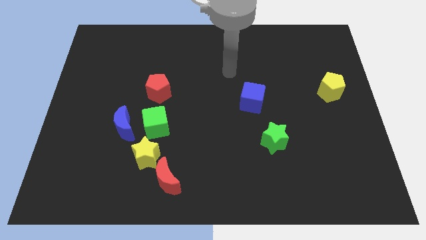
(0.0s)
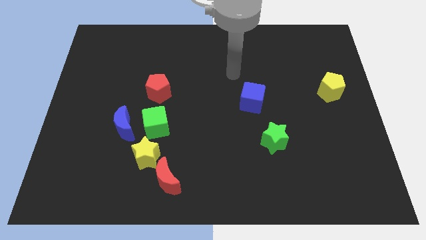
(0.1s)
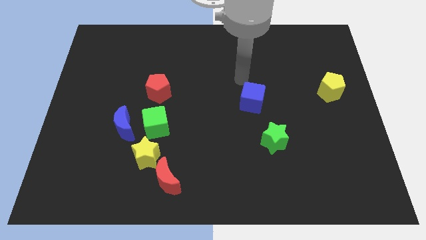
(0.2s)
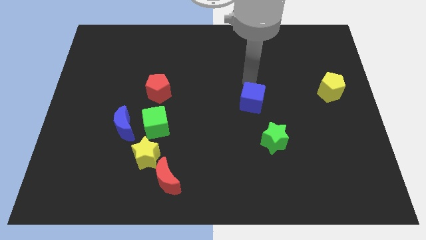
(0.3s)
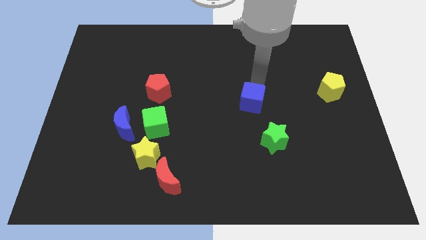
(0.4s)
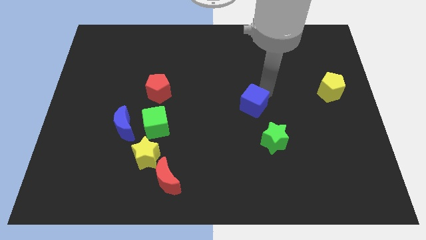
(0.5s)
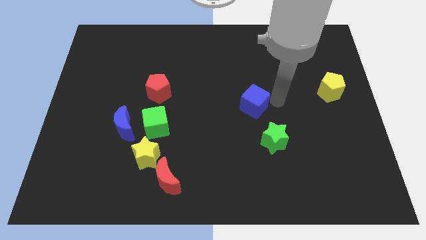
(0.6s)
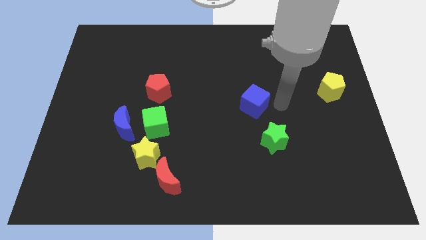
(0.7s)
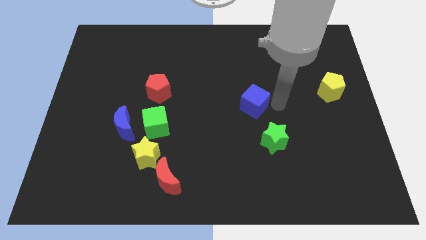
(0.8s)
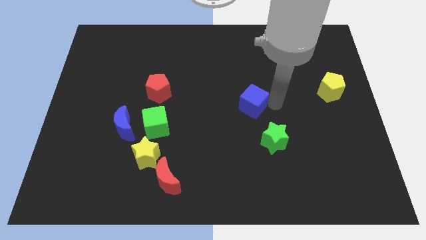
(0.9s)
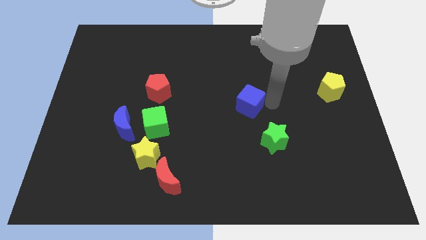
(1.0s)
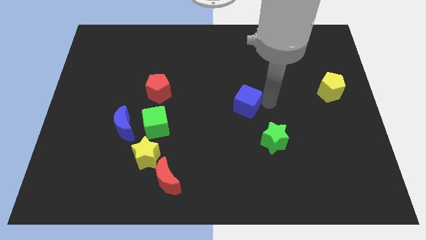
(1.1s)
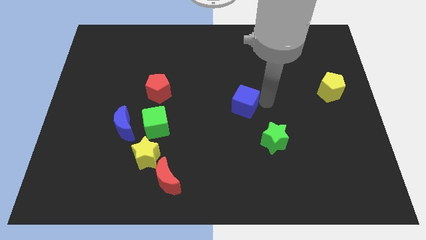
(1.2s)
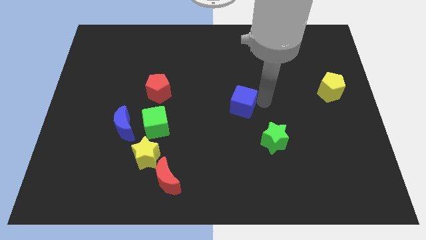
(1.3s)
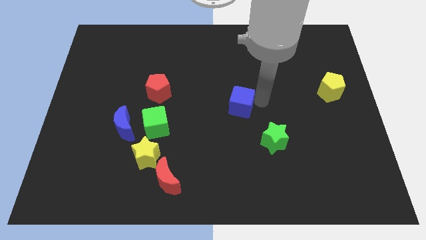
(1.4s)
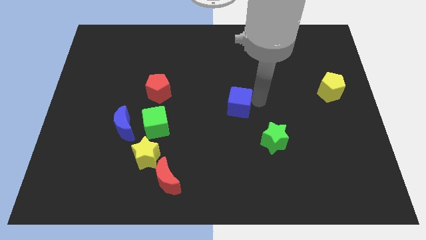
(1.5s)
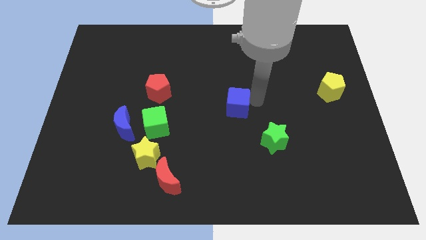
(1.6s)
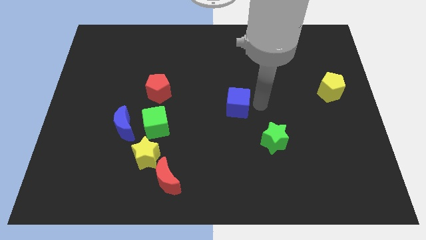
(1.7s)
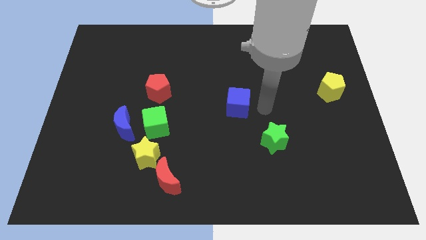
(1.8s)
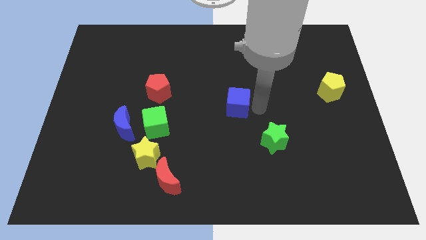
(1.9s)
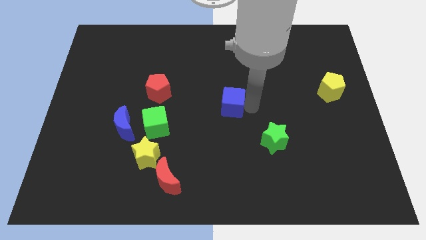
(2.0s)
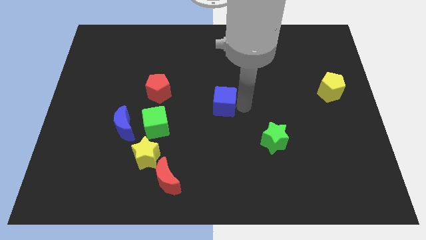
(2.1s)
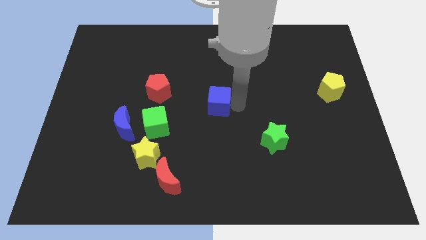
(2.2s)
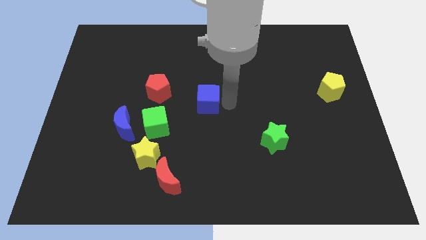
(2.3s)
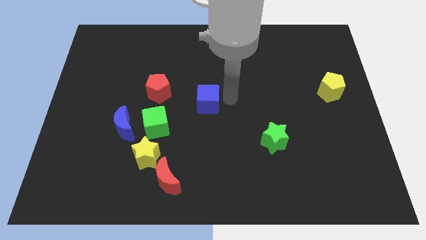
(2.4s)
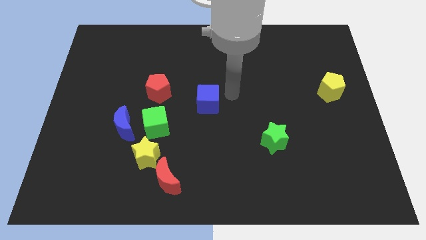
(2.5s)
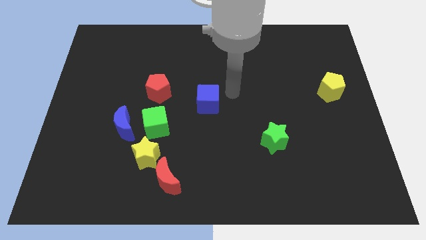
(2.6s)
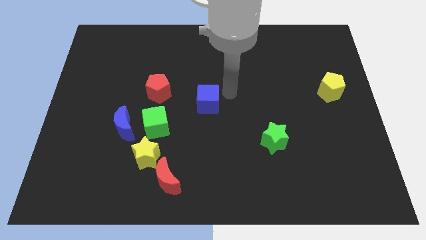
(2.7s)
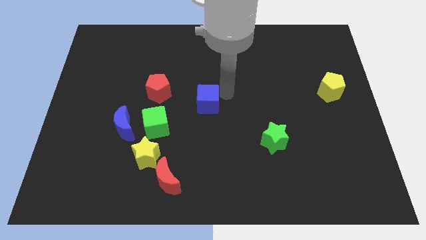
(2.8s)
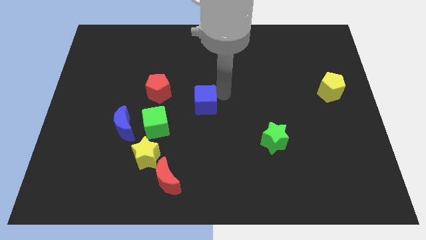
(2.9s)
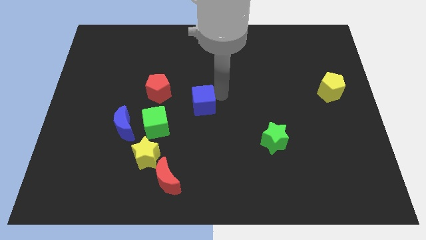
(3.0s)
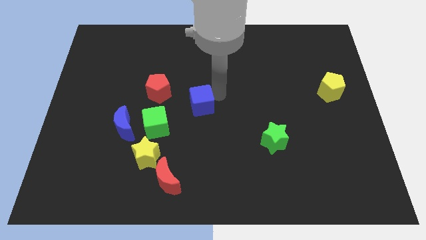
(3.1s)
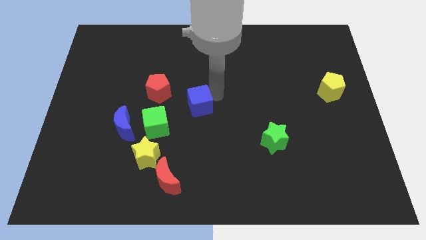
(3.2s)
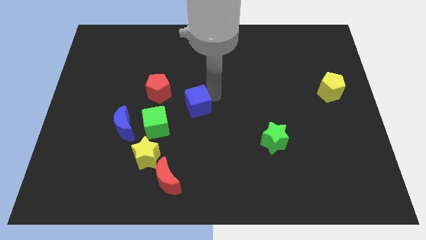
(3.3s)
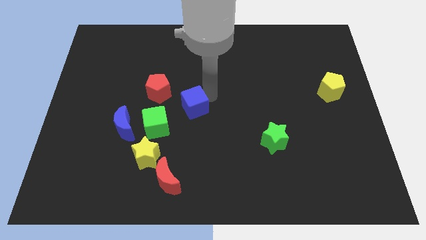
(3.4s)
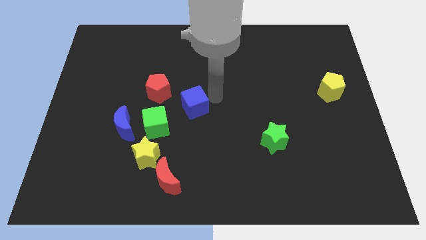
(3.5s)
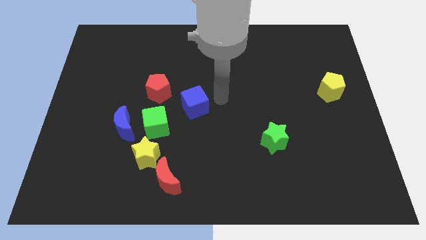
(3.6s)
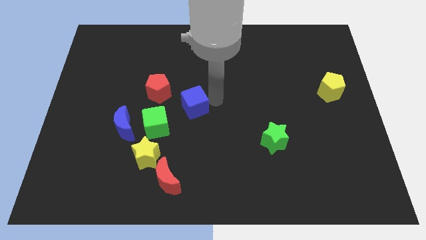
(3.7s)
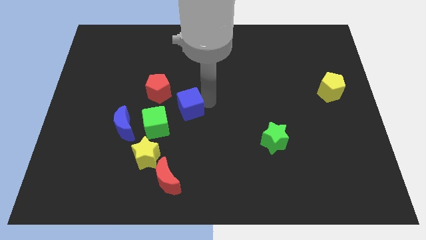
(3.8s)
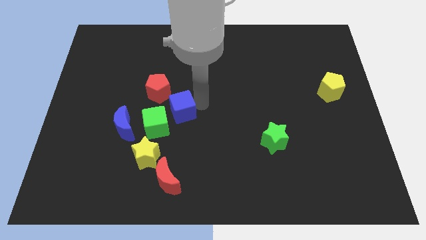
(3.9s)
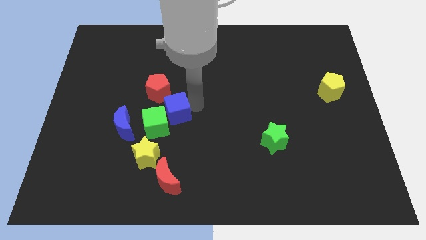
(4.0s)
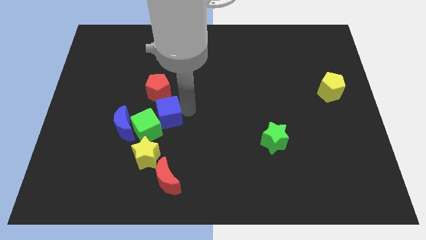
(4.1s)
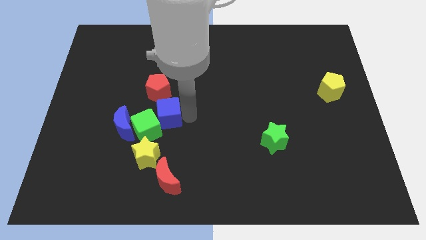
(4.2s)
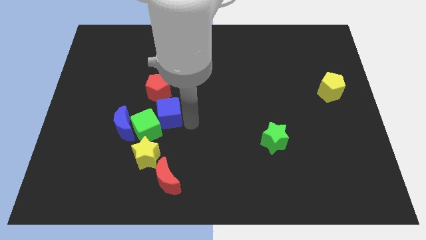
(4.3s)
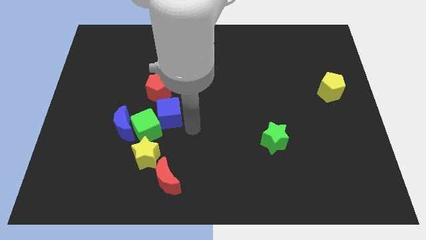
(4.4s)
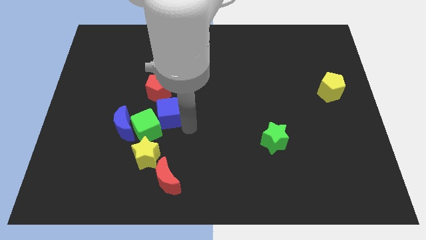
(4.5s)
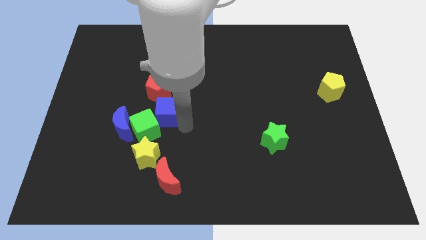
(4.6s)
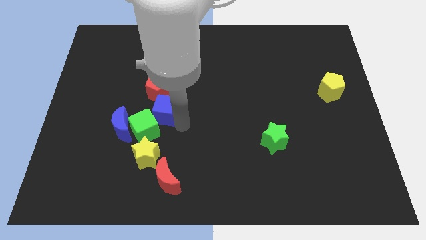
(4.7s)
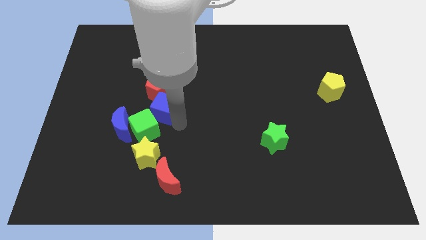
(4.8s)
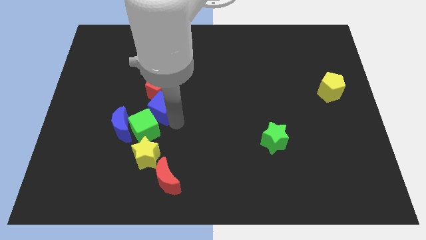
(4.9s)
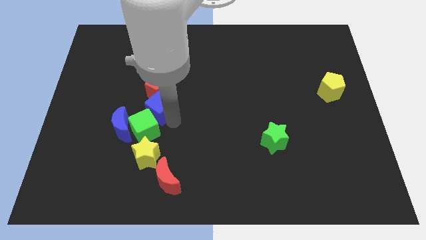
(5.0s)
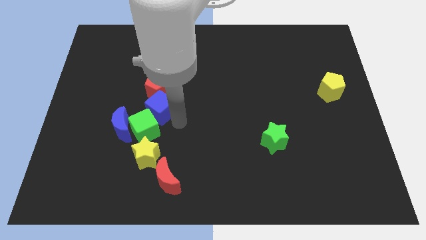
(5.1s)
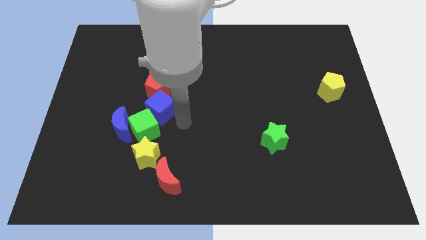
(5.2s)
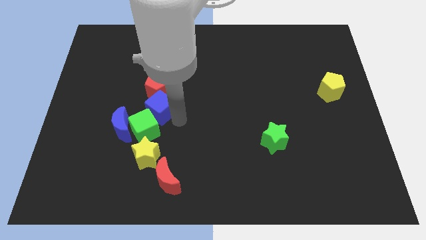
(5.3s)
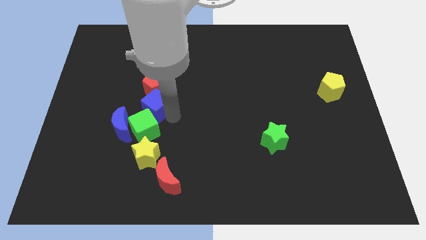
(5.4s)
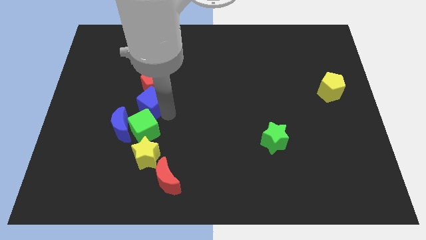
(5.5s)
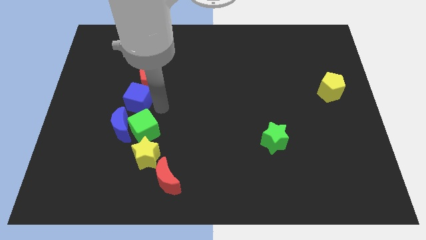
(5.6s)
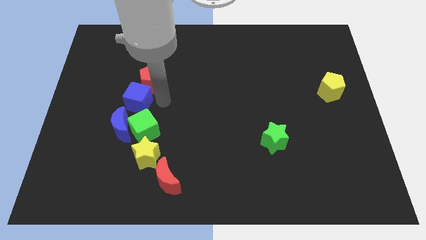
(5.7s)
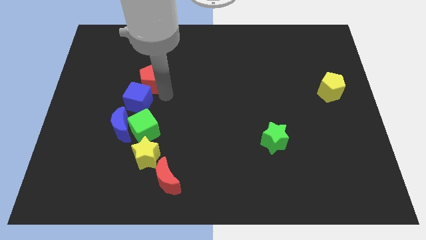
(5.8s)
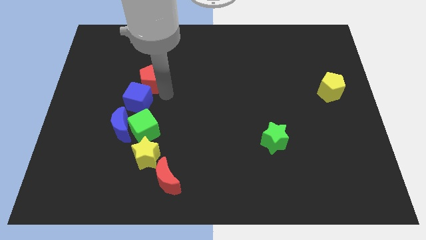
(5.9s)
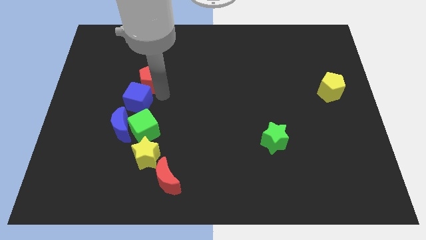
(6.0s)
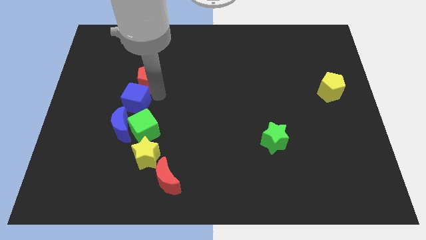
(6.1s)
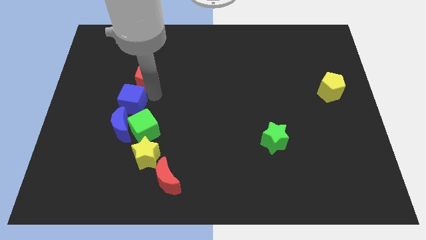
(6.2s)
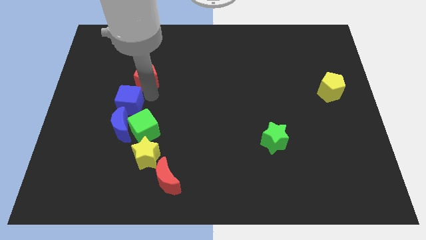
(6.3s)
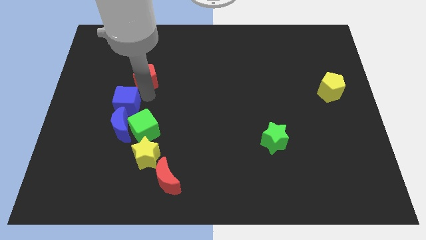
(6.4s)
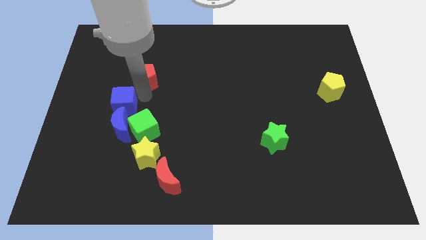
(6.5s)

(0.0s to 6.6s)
move the blue cube diagonally up and to the left of the blue moon

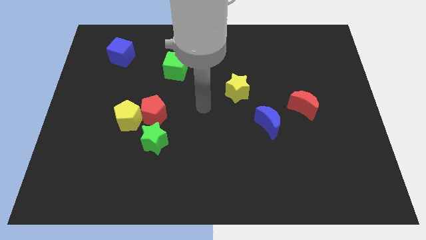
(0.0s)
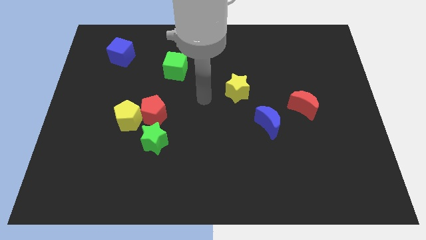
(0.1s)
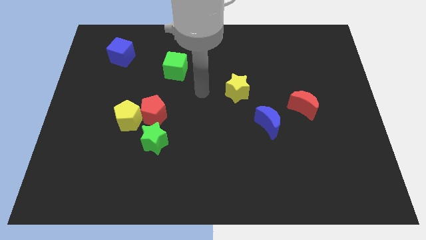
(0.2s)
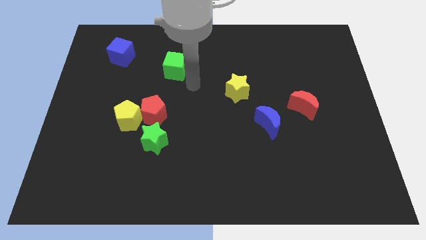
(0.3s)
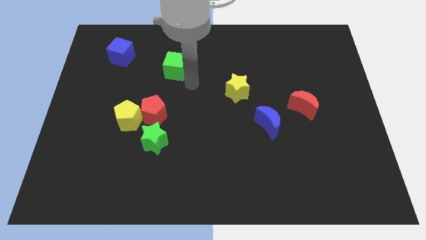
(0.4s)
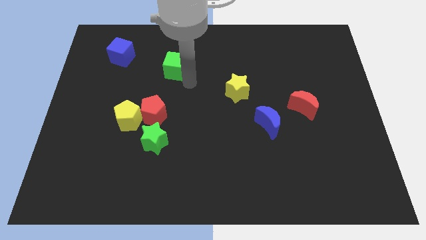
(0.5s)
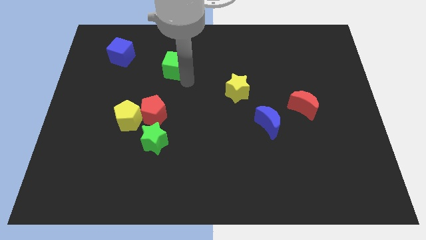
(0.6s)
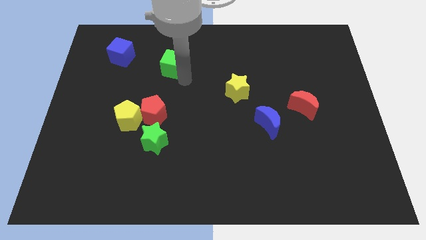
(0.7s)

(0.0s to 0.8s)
slide the green cube to the right of the blue cube

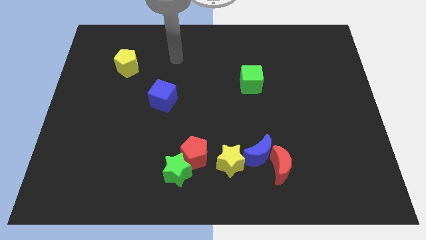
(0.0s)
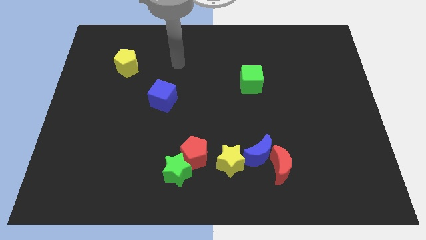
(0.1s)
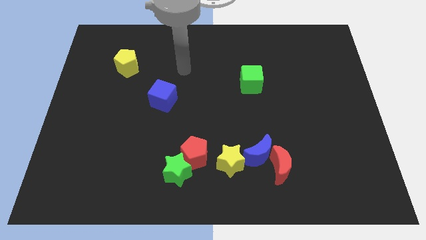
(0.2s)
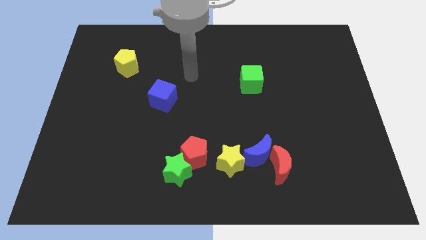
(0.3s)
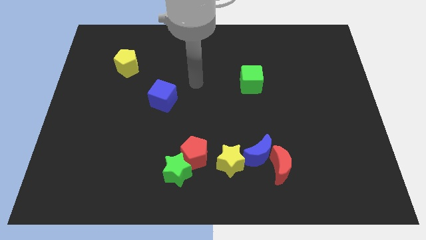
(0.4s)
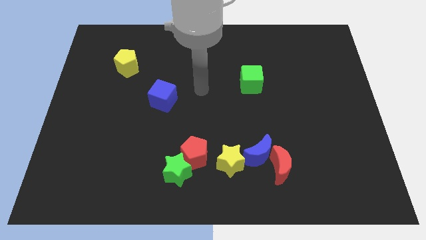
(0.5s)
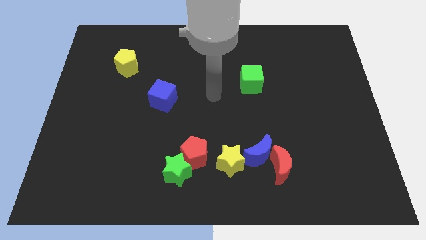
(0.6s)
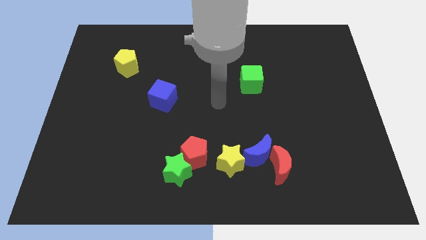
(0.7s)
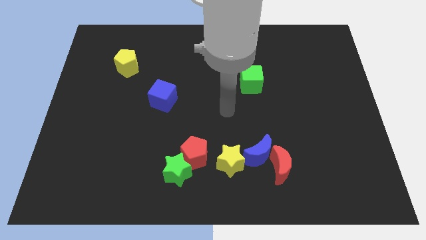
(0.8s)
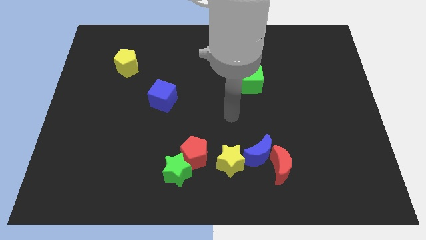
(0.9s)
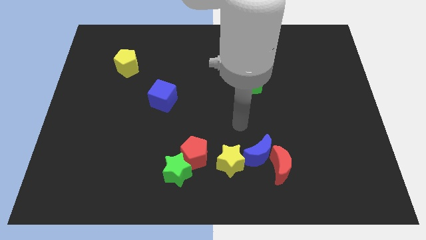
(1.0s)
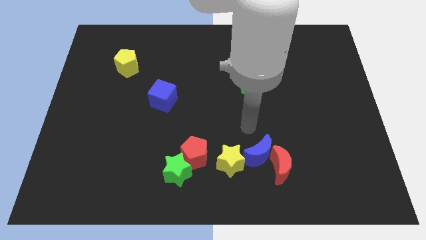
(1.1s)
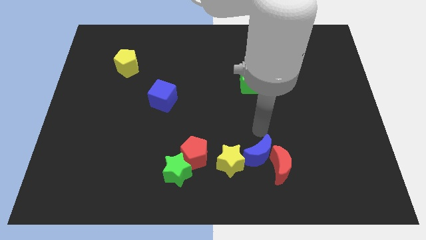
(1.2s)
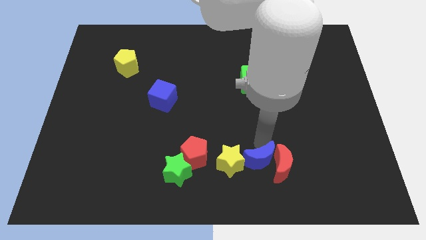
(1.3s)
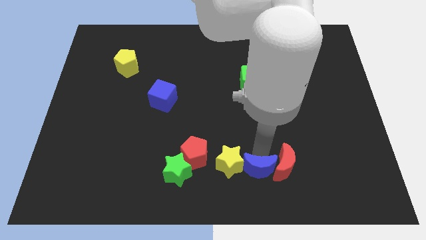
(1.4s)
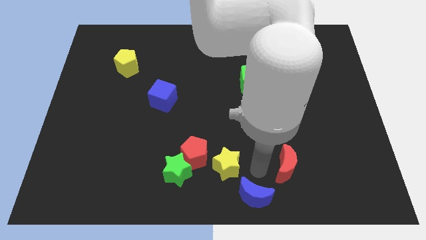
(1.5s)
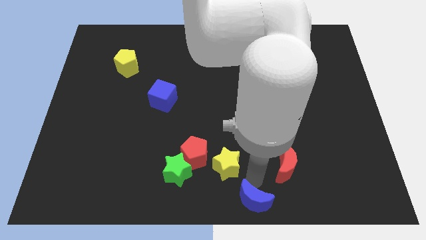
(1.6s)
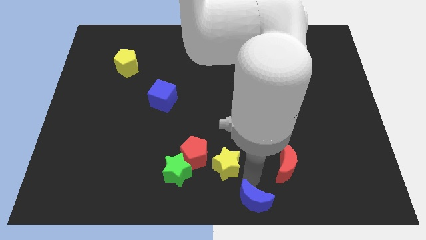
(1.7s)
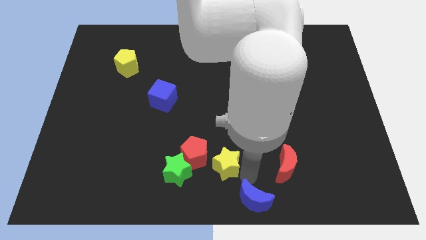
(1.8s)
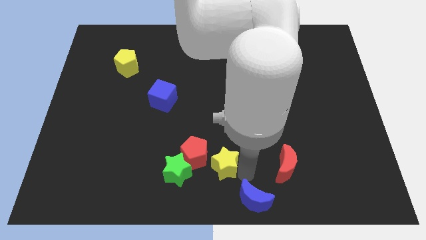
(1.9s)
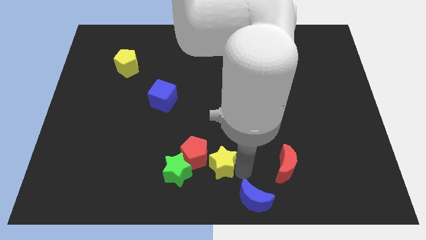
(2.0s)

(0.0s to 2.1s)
put the yellow star to the top right of the green star
